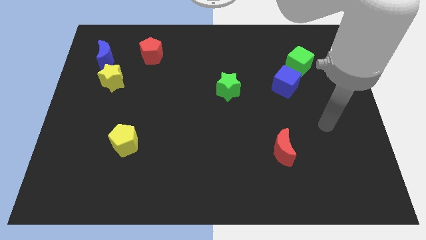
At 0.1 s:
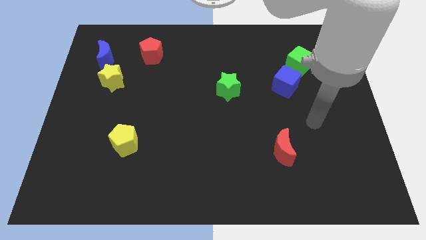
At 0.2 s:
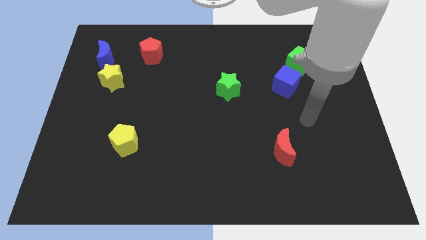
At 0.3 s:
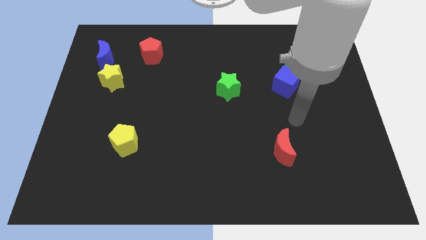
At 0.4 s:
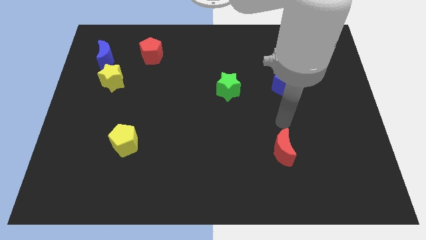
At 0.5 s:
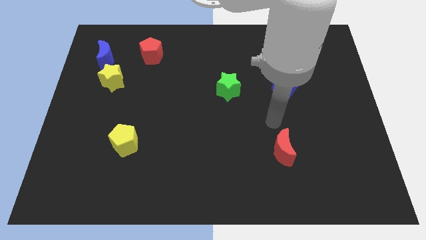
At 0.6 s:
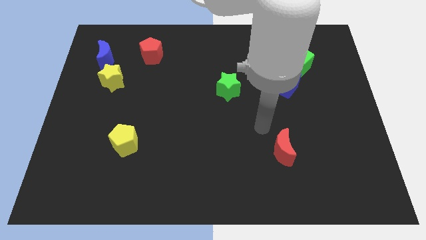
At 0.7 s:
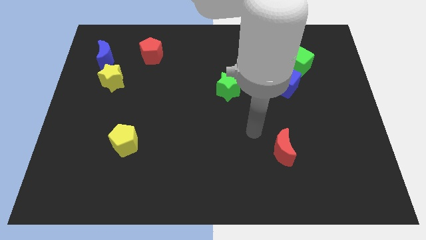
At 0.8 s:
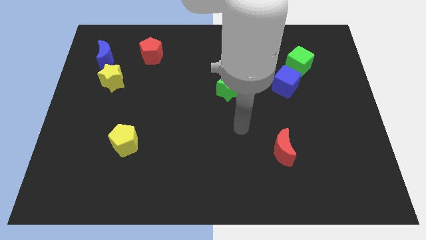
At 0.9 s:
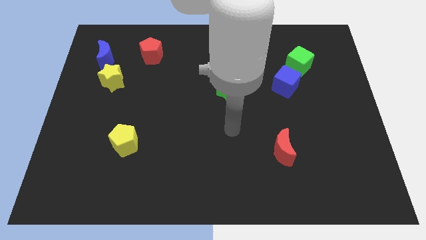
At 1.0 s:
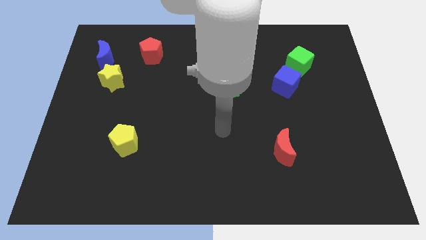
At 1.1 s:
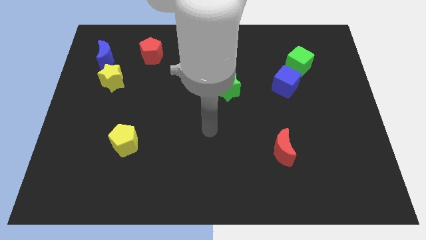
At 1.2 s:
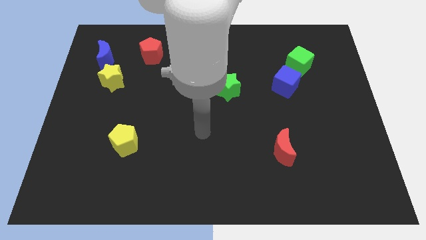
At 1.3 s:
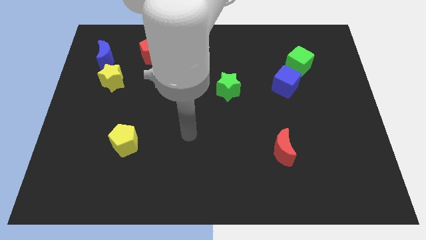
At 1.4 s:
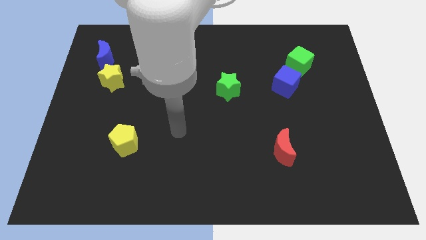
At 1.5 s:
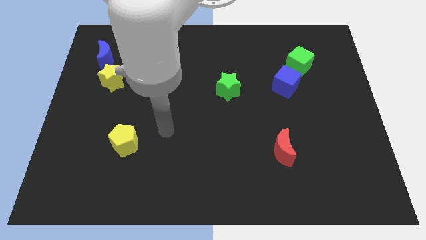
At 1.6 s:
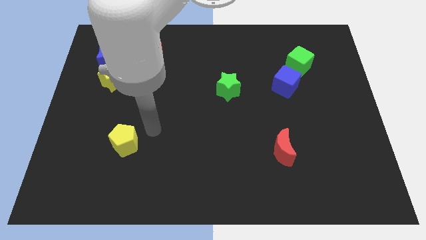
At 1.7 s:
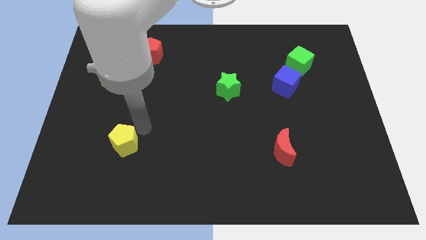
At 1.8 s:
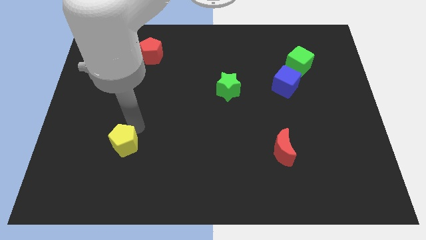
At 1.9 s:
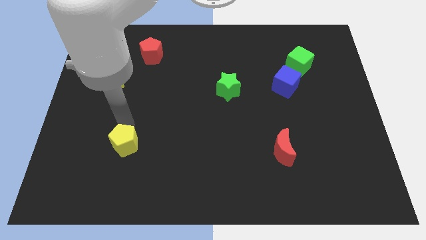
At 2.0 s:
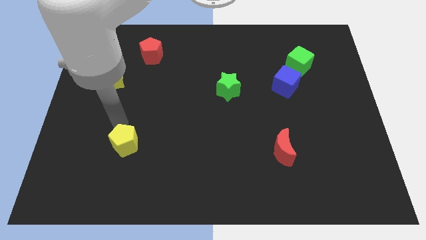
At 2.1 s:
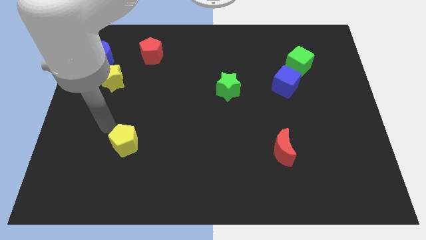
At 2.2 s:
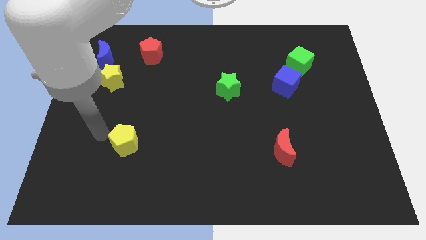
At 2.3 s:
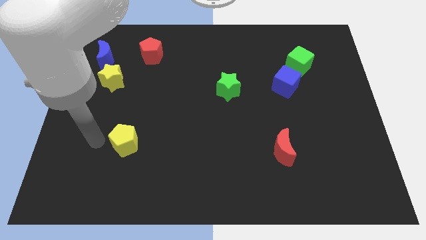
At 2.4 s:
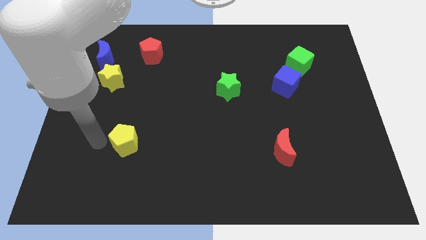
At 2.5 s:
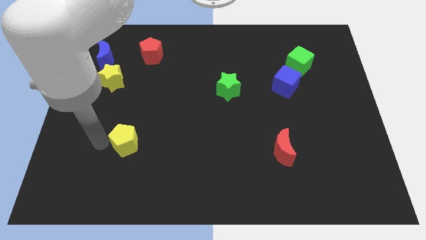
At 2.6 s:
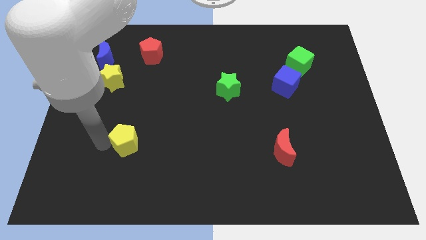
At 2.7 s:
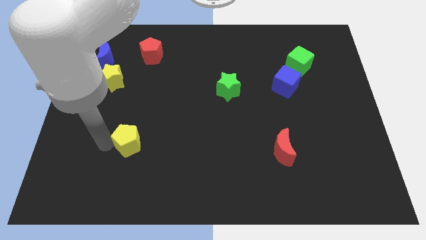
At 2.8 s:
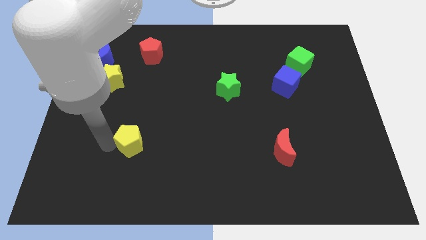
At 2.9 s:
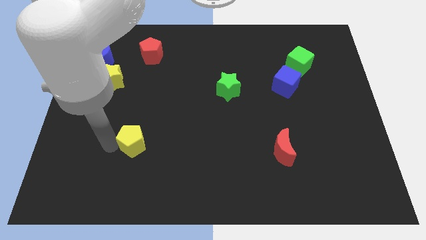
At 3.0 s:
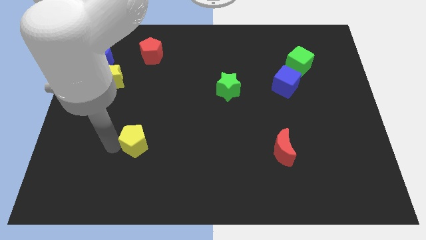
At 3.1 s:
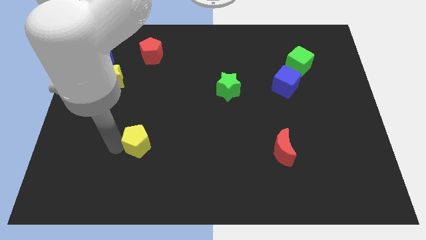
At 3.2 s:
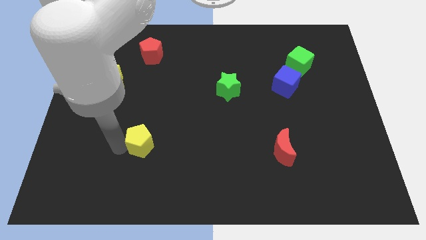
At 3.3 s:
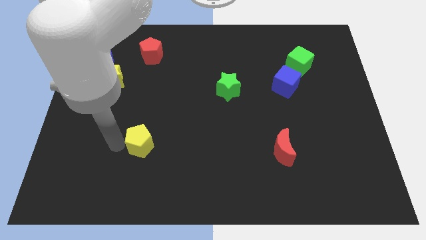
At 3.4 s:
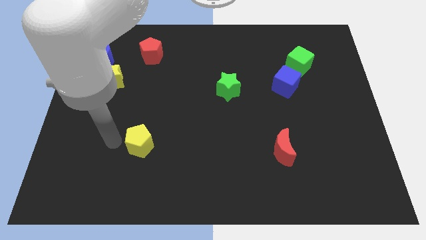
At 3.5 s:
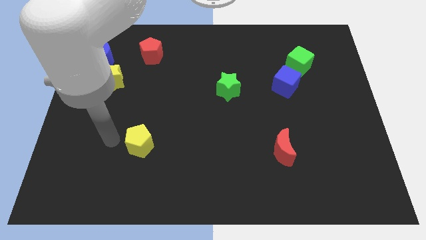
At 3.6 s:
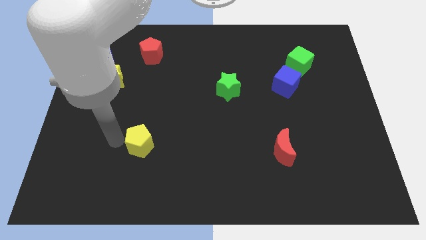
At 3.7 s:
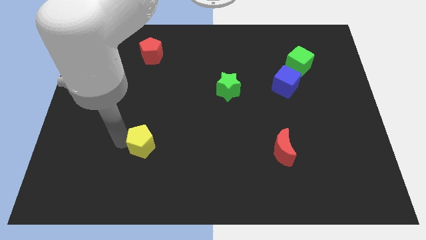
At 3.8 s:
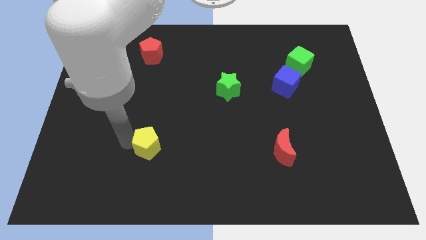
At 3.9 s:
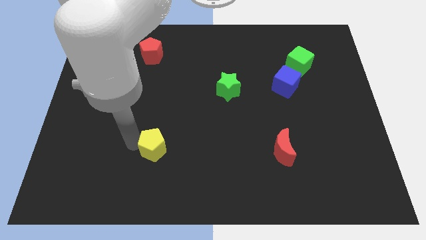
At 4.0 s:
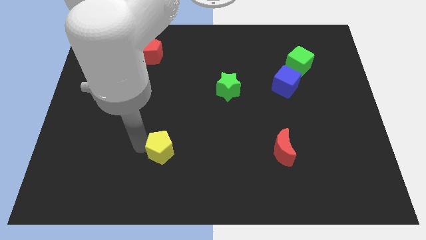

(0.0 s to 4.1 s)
push the yellow pentagon somewhat right

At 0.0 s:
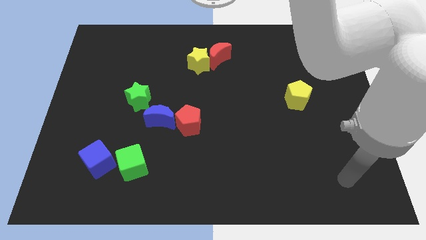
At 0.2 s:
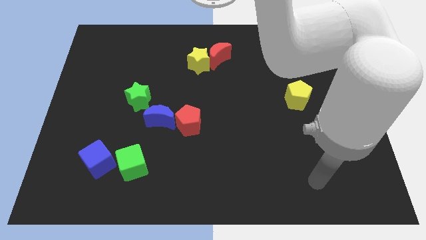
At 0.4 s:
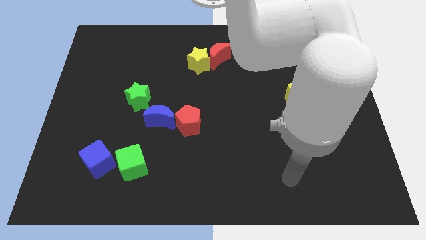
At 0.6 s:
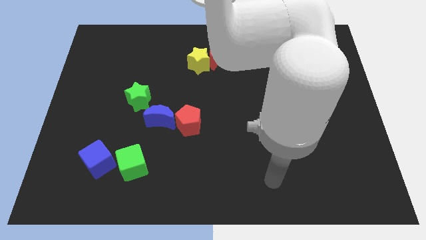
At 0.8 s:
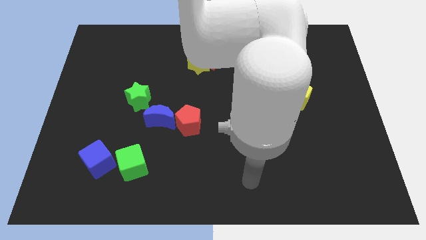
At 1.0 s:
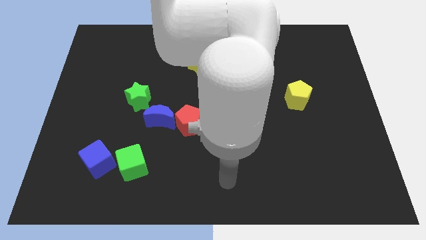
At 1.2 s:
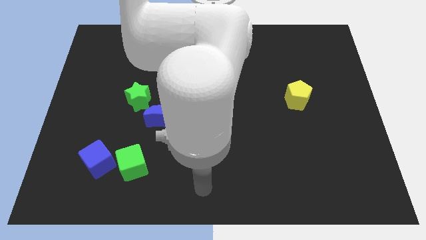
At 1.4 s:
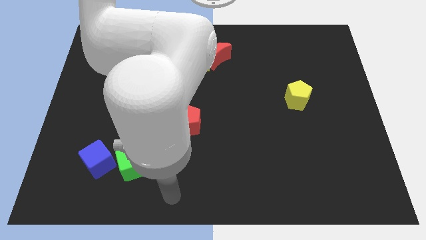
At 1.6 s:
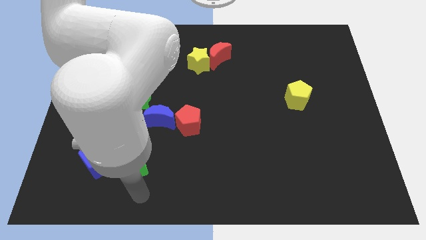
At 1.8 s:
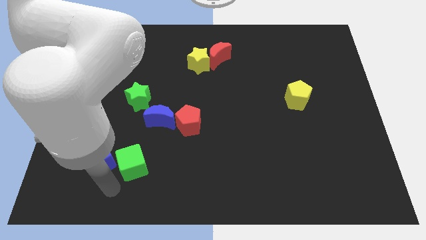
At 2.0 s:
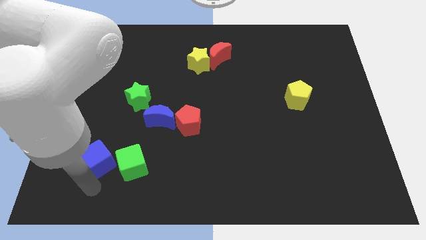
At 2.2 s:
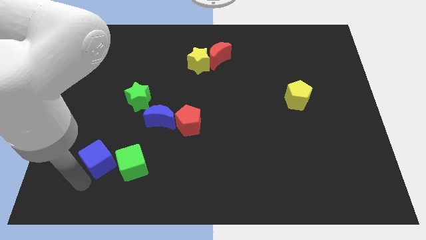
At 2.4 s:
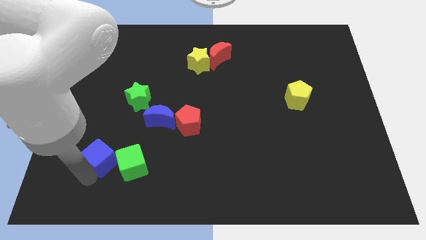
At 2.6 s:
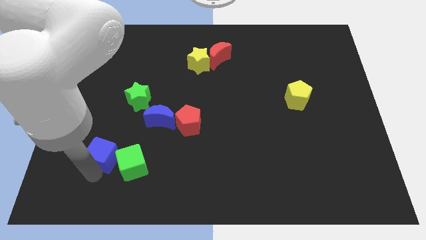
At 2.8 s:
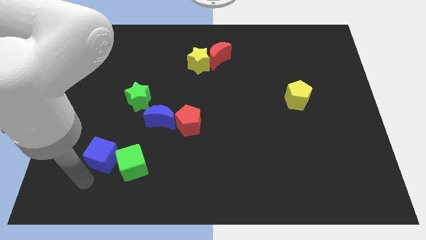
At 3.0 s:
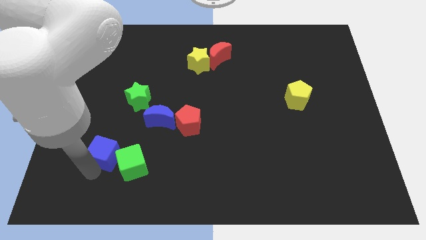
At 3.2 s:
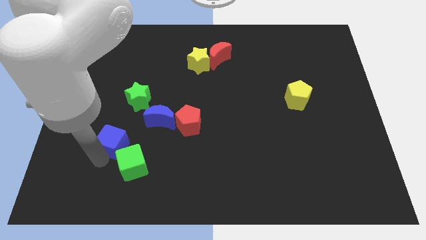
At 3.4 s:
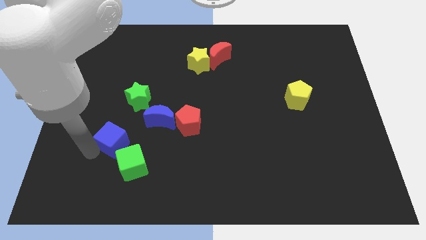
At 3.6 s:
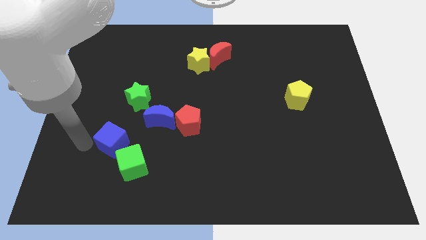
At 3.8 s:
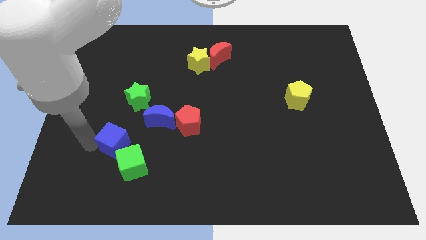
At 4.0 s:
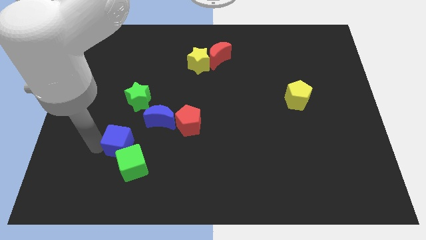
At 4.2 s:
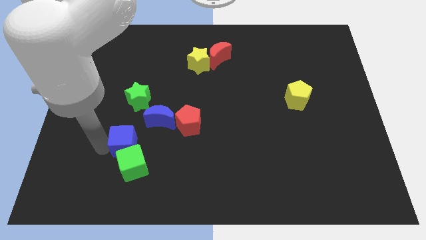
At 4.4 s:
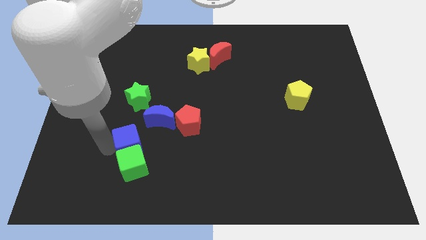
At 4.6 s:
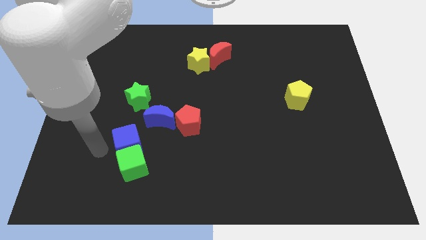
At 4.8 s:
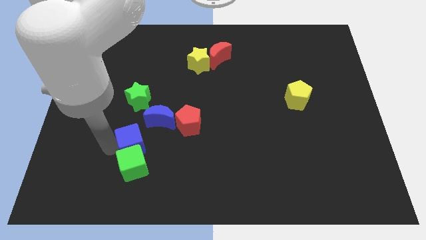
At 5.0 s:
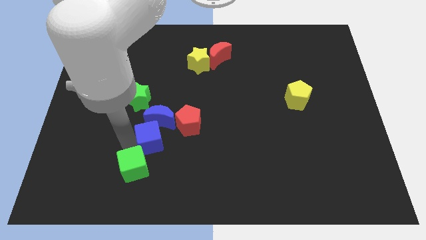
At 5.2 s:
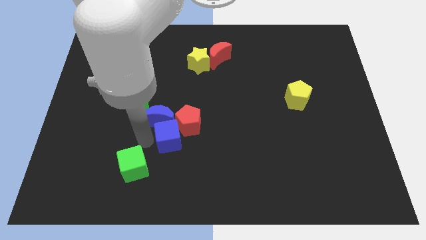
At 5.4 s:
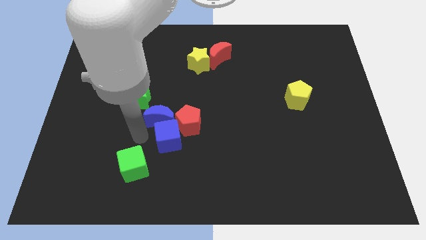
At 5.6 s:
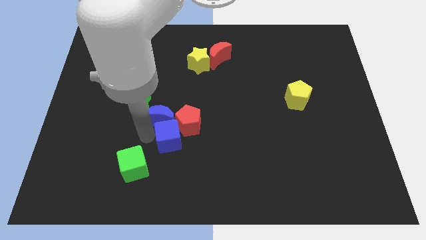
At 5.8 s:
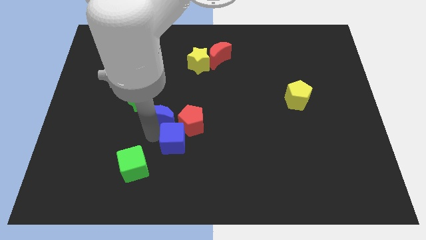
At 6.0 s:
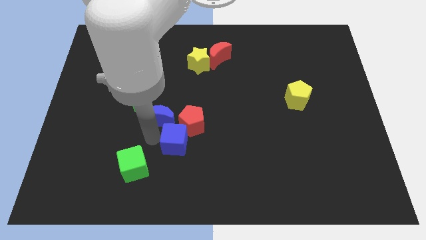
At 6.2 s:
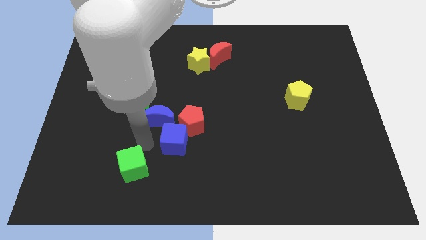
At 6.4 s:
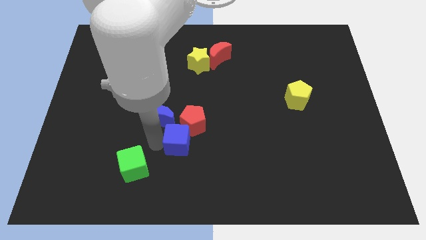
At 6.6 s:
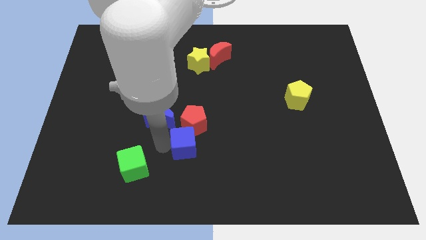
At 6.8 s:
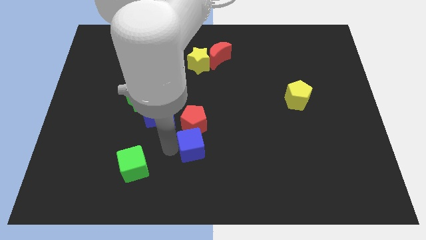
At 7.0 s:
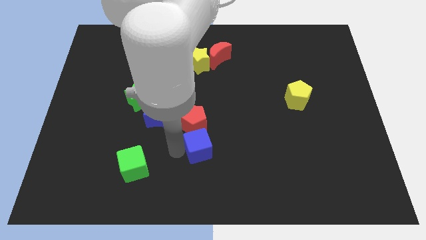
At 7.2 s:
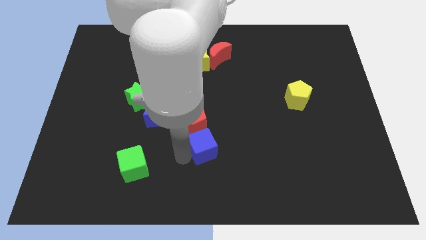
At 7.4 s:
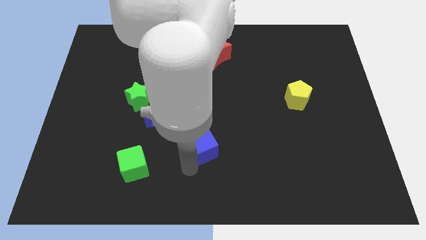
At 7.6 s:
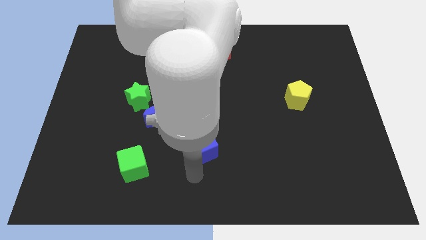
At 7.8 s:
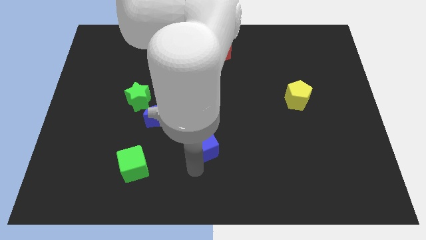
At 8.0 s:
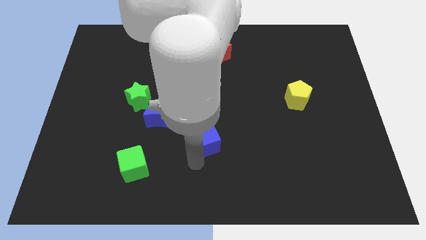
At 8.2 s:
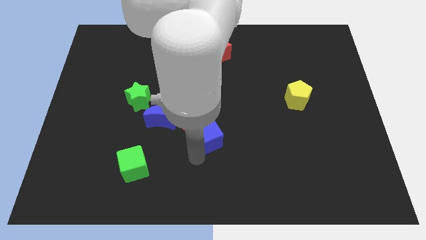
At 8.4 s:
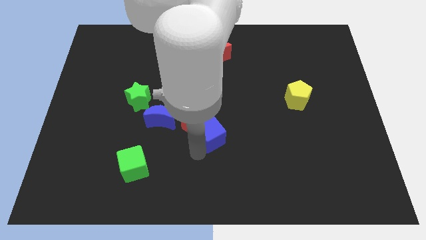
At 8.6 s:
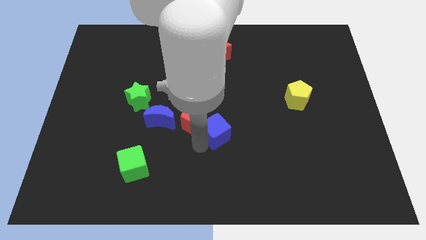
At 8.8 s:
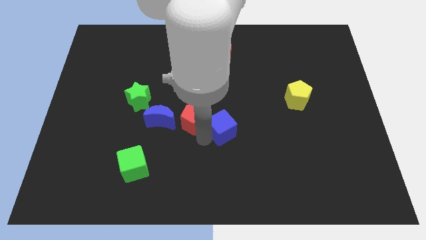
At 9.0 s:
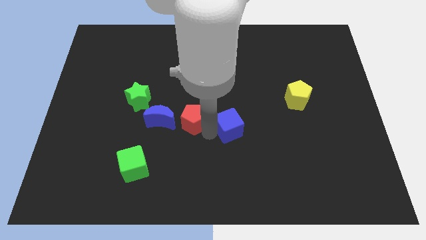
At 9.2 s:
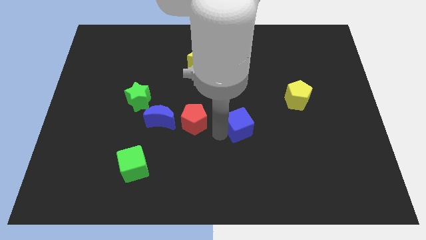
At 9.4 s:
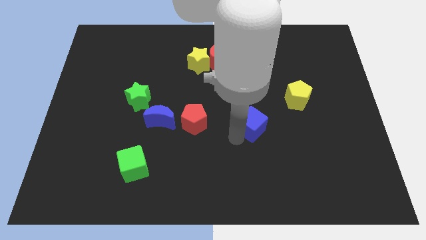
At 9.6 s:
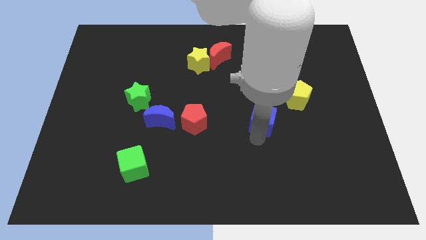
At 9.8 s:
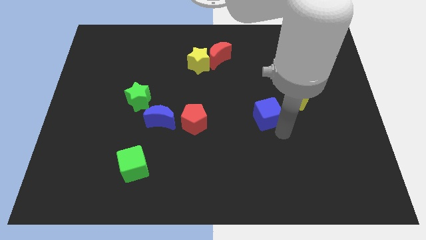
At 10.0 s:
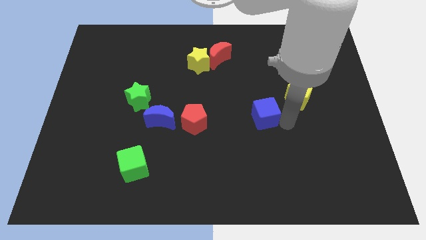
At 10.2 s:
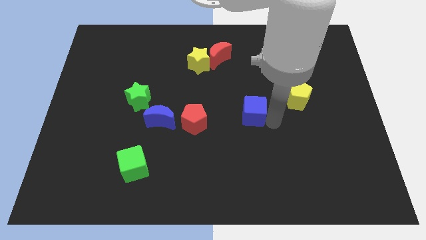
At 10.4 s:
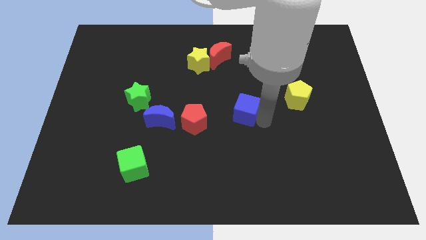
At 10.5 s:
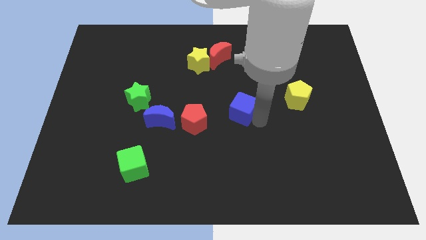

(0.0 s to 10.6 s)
push the blue cube diagonally up and right
